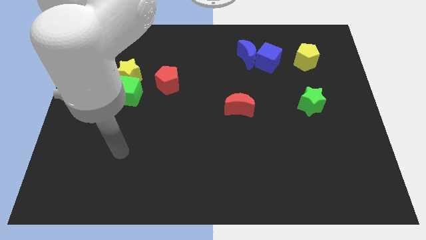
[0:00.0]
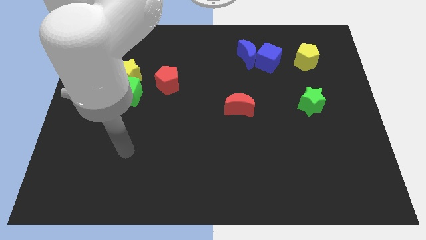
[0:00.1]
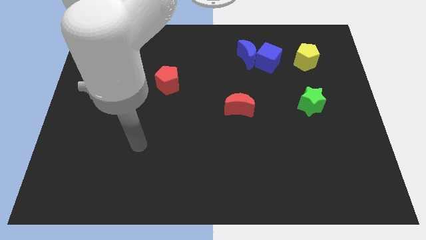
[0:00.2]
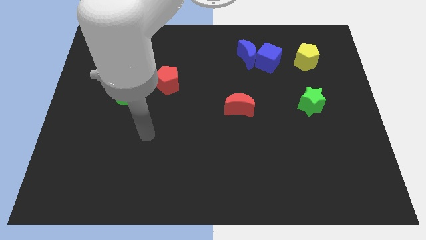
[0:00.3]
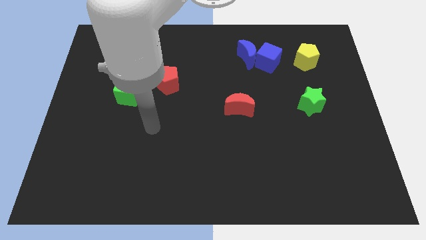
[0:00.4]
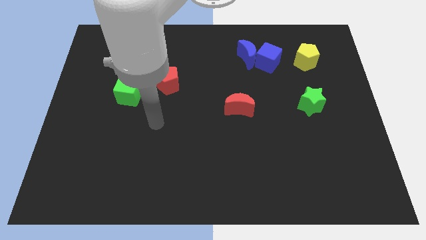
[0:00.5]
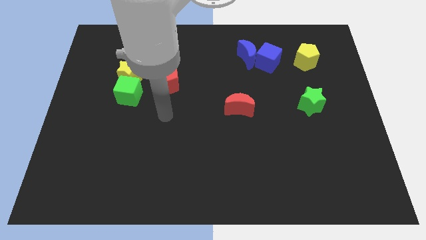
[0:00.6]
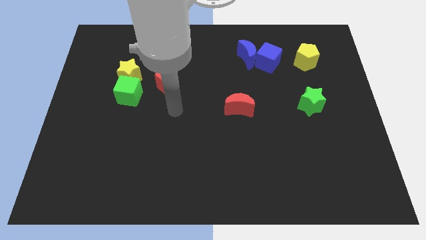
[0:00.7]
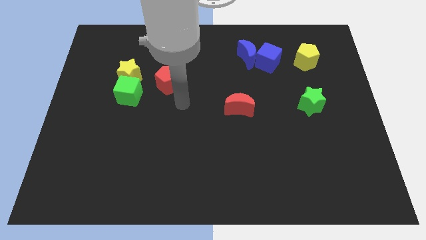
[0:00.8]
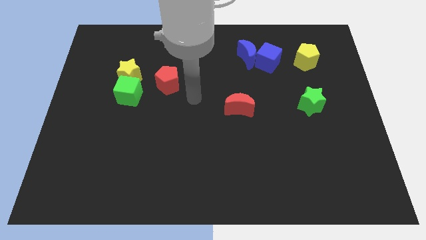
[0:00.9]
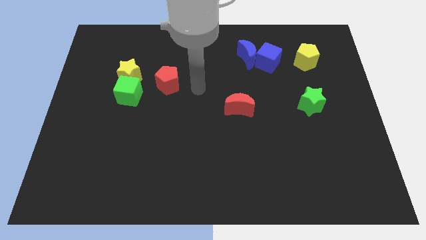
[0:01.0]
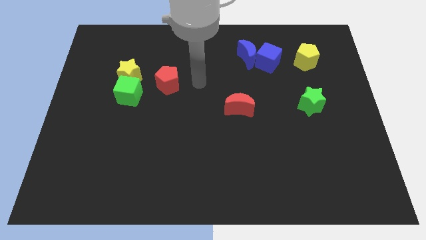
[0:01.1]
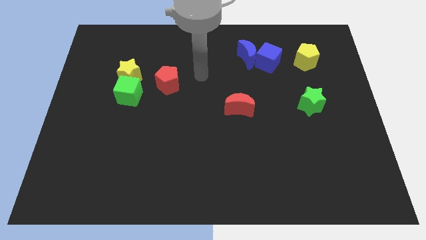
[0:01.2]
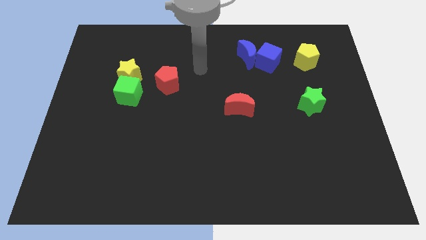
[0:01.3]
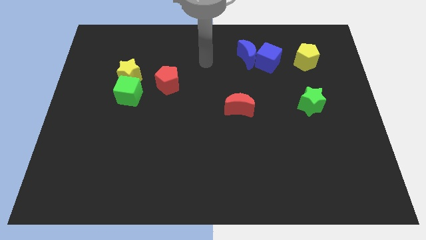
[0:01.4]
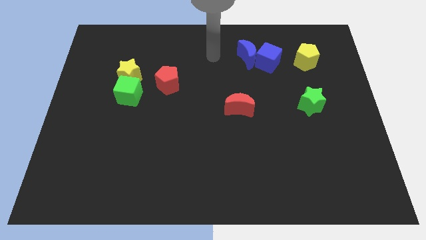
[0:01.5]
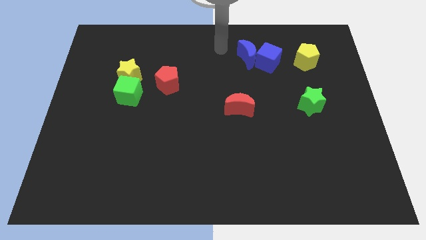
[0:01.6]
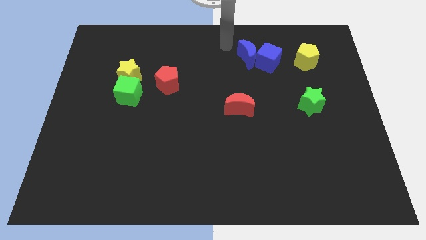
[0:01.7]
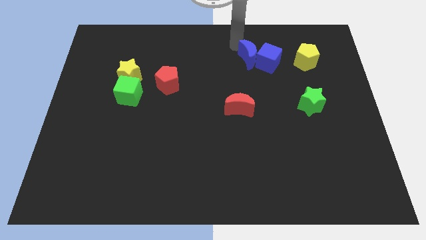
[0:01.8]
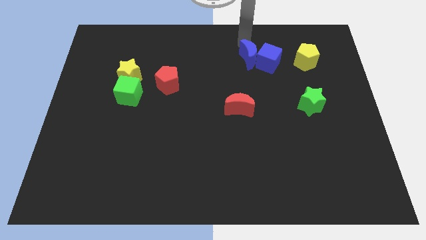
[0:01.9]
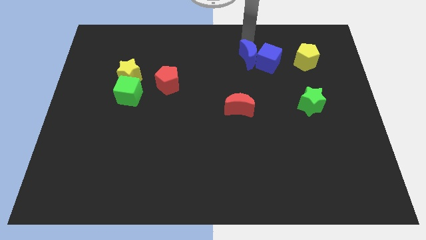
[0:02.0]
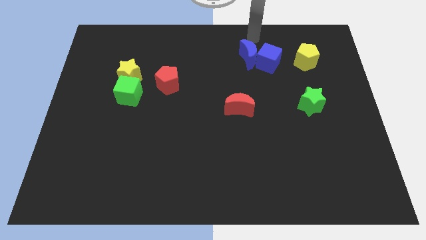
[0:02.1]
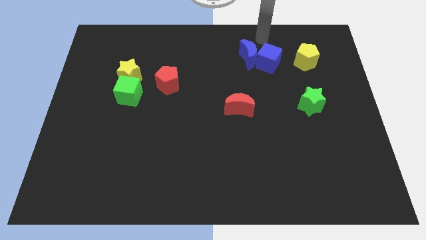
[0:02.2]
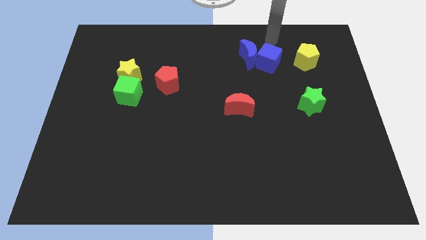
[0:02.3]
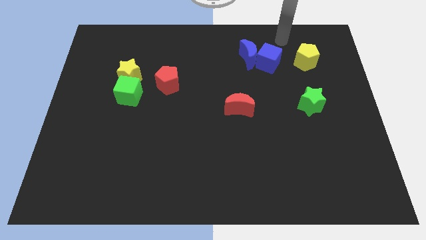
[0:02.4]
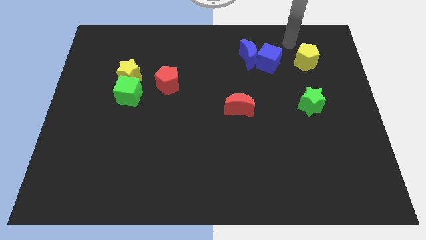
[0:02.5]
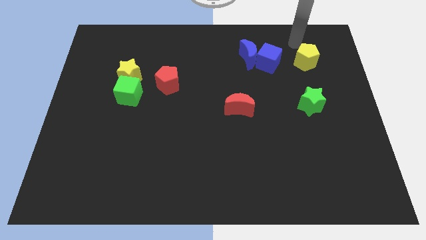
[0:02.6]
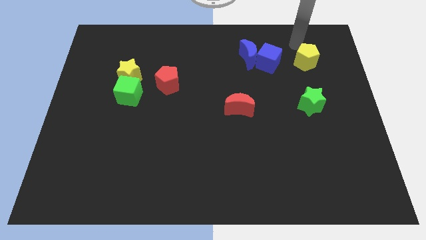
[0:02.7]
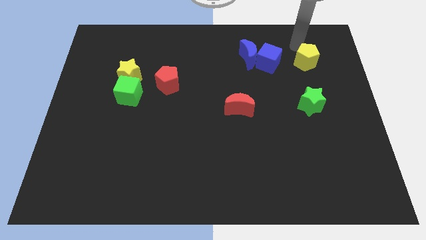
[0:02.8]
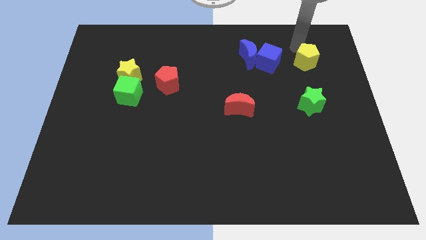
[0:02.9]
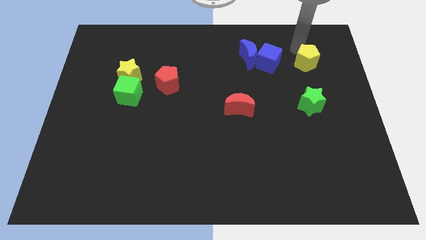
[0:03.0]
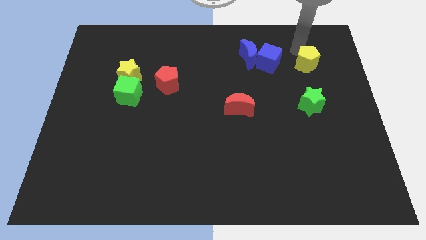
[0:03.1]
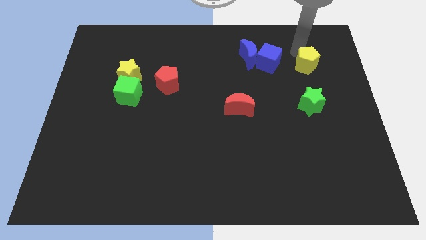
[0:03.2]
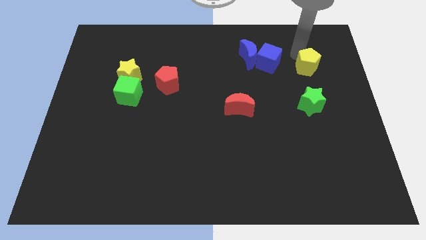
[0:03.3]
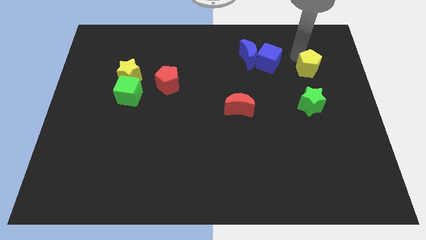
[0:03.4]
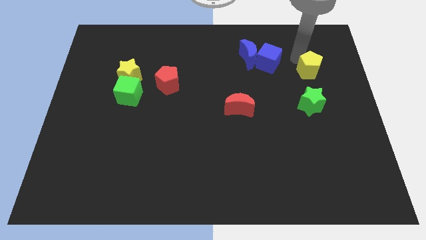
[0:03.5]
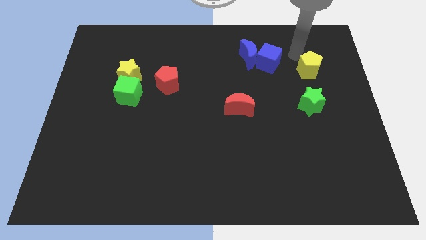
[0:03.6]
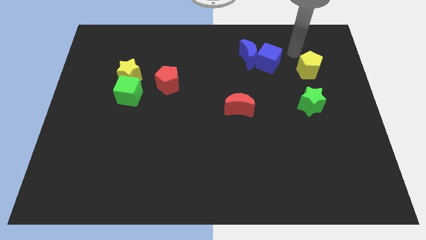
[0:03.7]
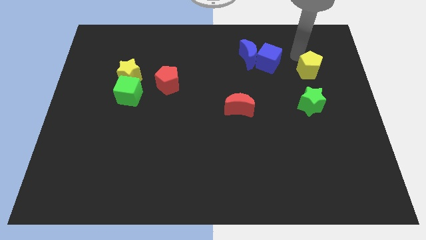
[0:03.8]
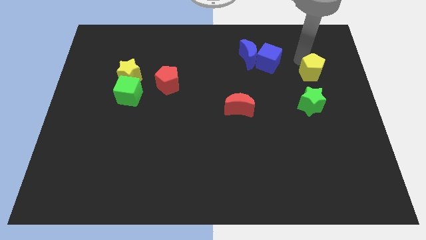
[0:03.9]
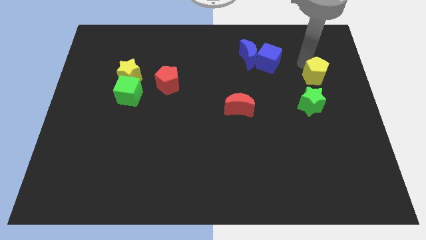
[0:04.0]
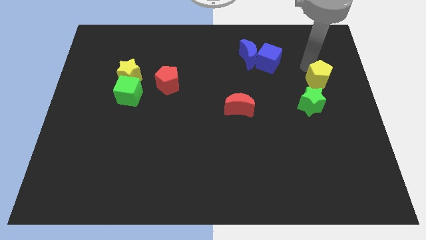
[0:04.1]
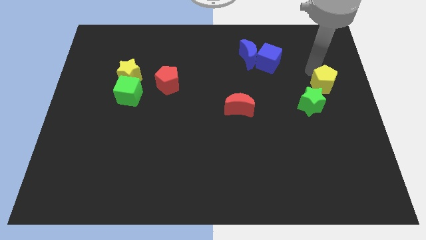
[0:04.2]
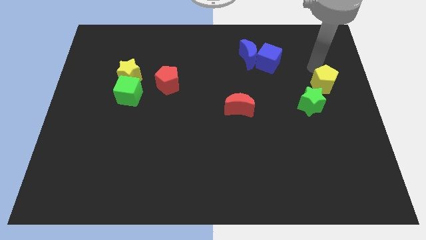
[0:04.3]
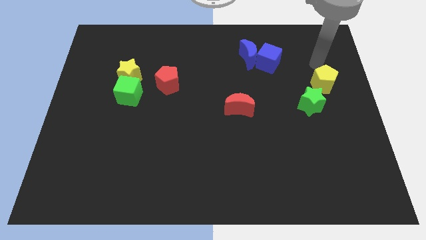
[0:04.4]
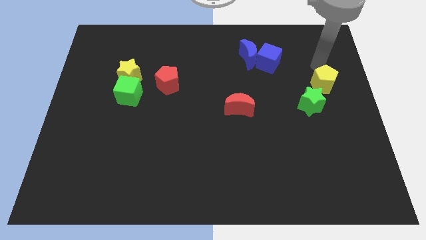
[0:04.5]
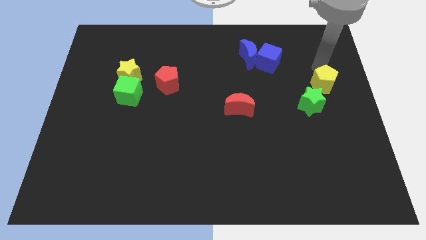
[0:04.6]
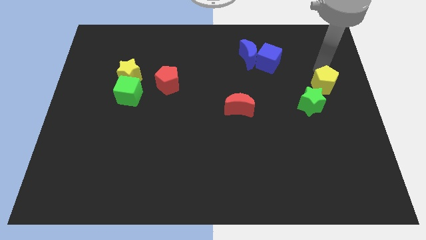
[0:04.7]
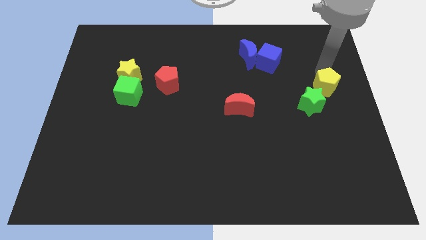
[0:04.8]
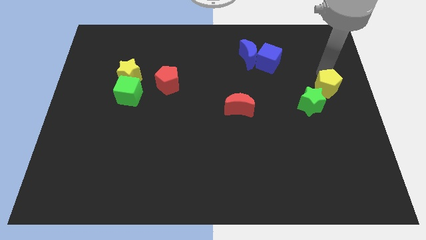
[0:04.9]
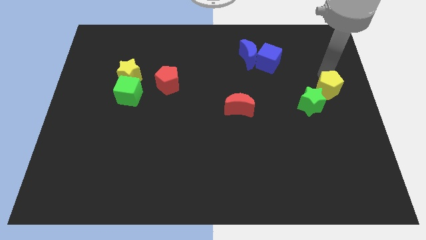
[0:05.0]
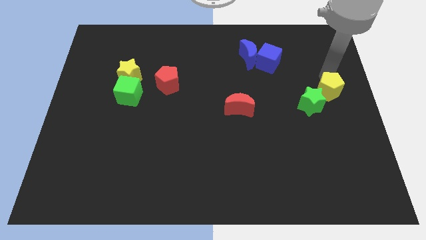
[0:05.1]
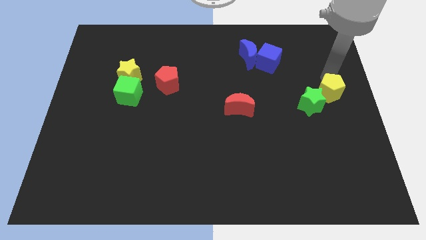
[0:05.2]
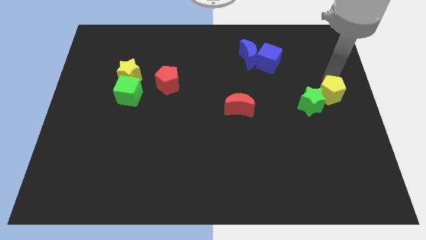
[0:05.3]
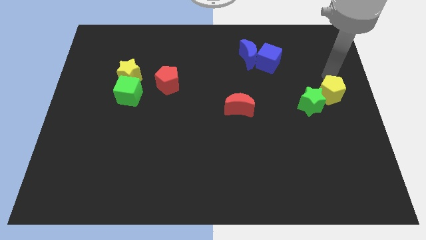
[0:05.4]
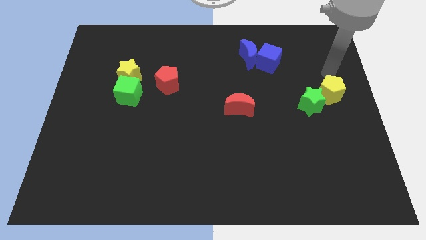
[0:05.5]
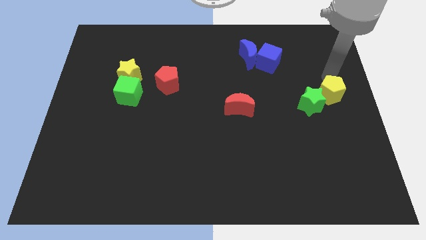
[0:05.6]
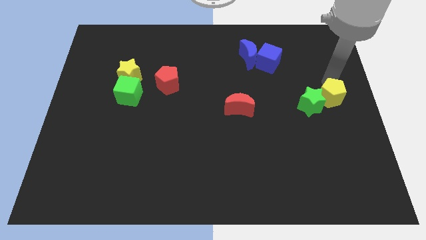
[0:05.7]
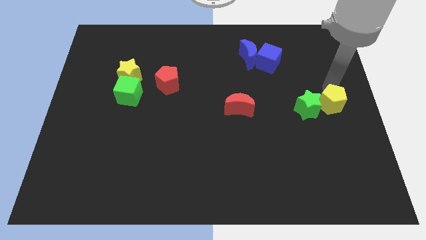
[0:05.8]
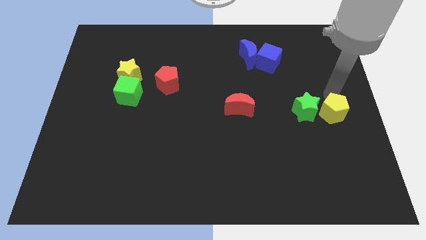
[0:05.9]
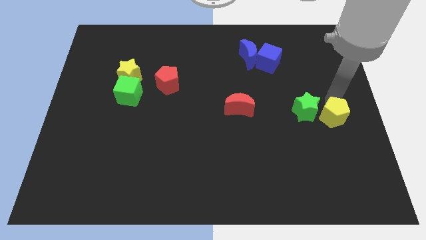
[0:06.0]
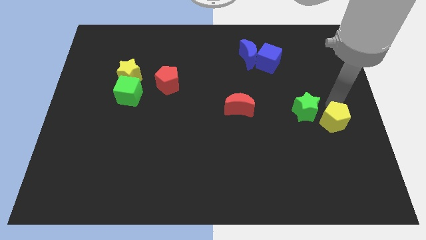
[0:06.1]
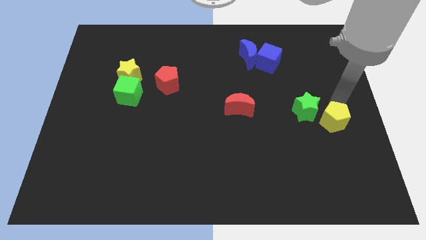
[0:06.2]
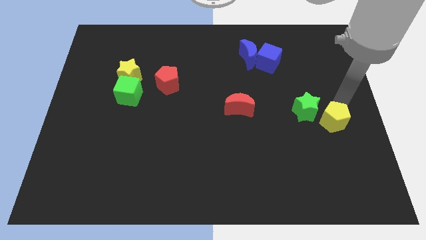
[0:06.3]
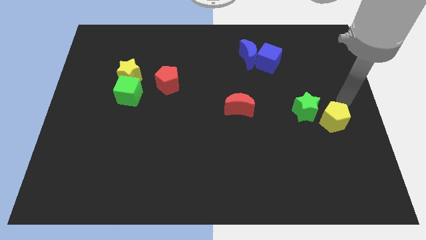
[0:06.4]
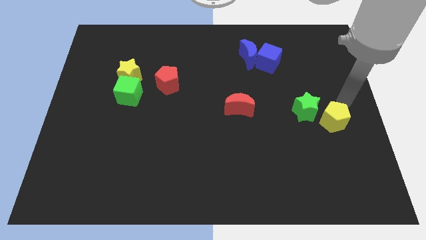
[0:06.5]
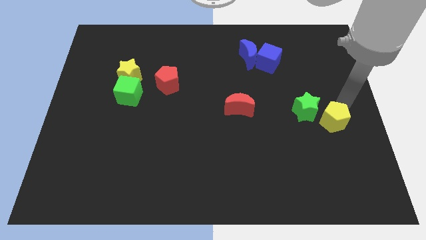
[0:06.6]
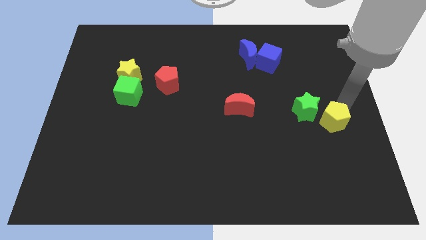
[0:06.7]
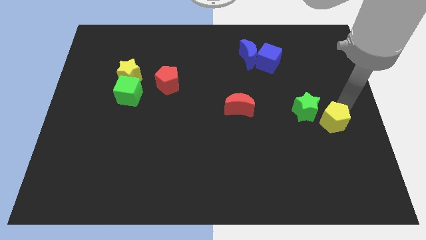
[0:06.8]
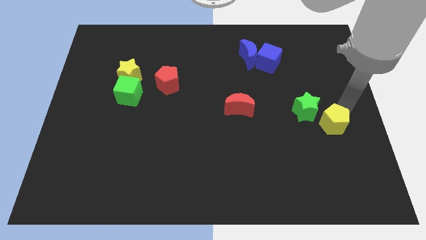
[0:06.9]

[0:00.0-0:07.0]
move the yellow pentagon downwards

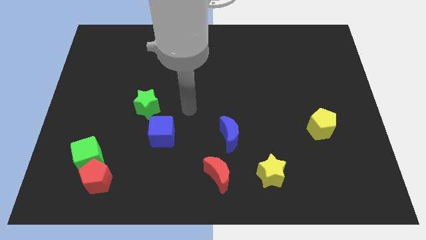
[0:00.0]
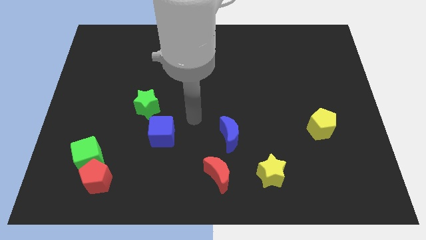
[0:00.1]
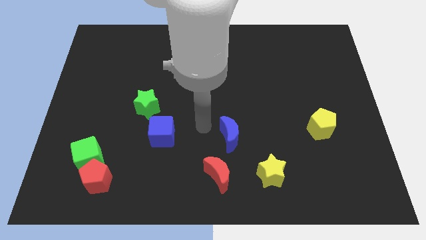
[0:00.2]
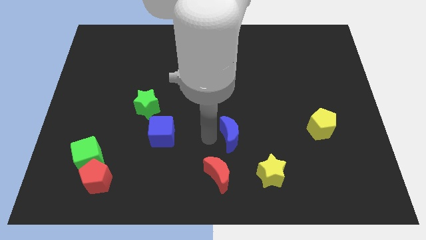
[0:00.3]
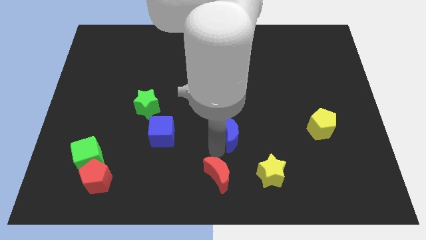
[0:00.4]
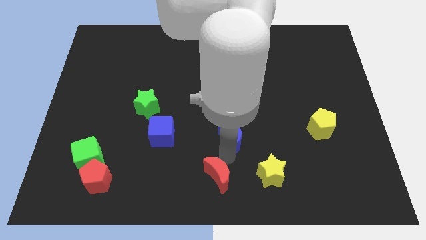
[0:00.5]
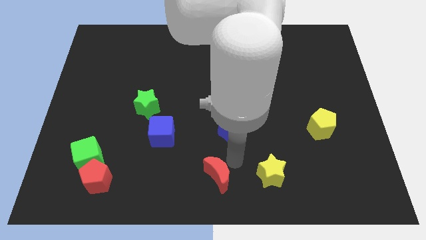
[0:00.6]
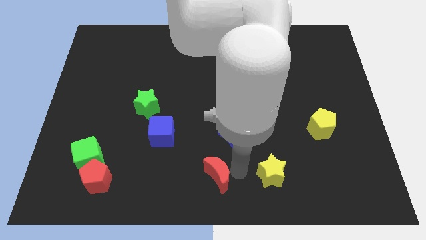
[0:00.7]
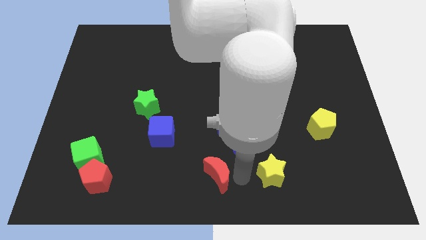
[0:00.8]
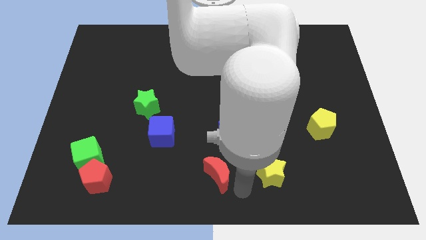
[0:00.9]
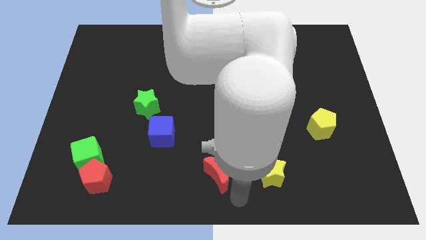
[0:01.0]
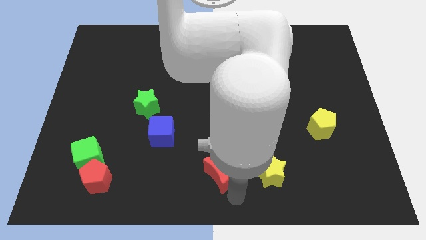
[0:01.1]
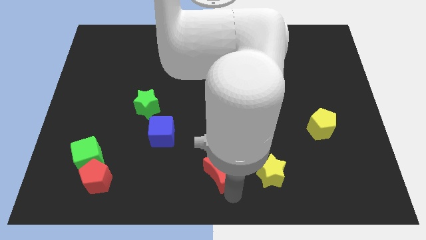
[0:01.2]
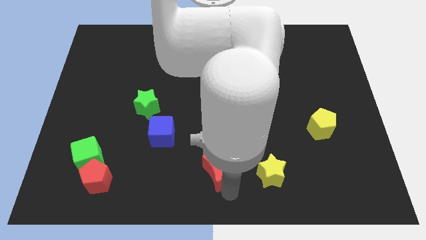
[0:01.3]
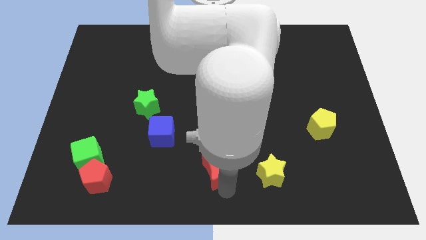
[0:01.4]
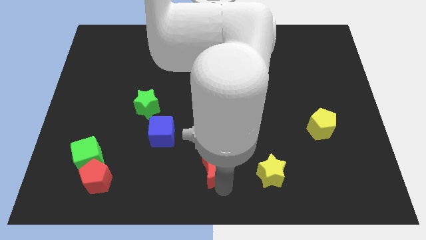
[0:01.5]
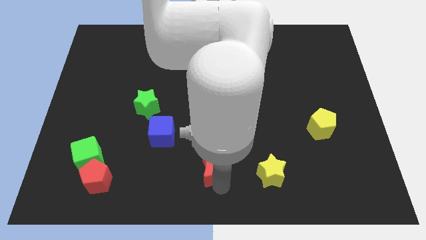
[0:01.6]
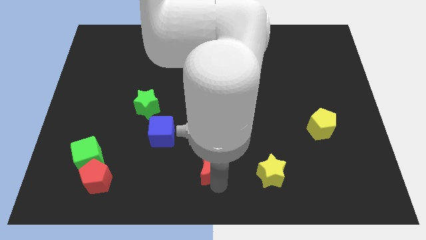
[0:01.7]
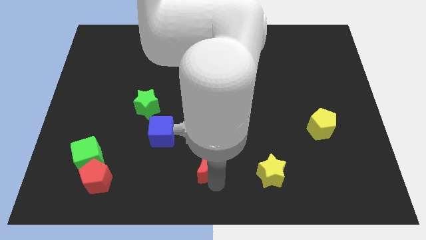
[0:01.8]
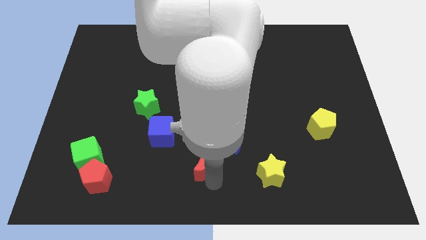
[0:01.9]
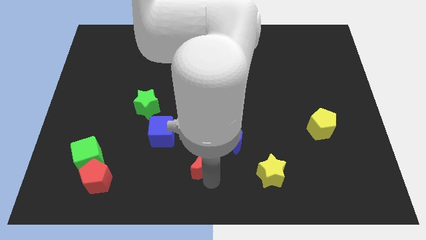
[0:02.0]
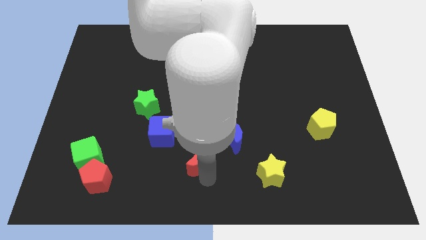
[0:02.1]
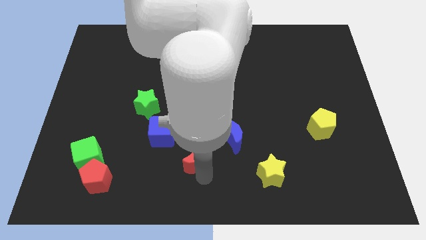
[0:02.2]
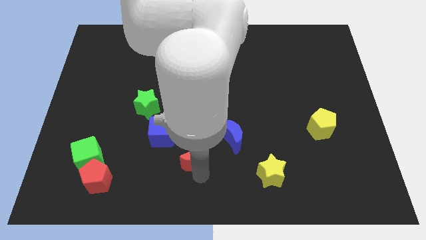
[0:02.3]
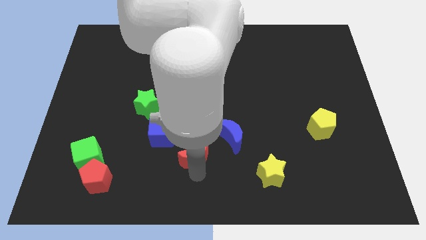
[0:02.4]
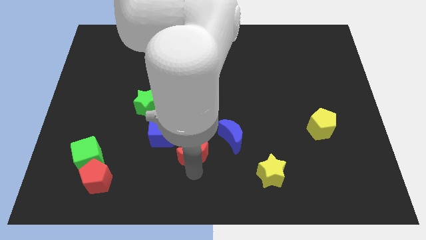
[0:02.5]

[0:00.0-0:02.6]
slightly push the red moon up and to the left
